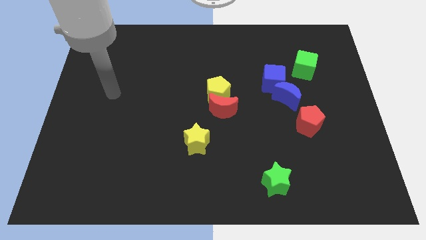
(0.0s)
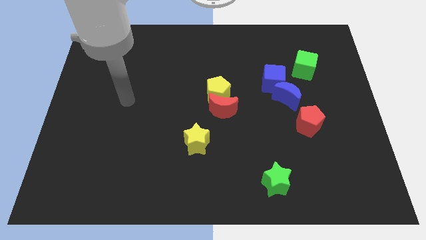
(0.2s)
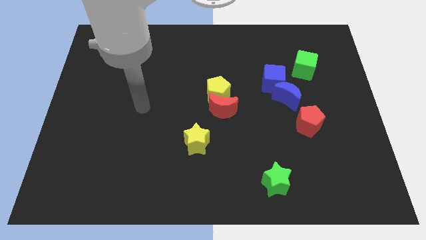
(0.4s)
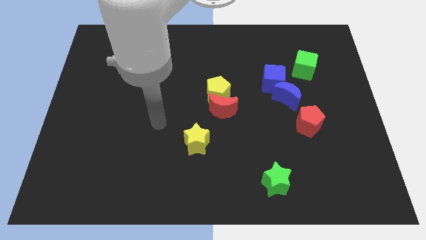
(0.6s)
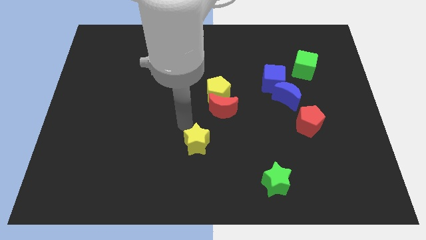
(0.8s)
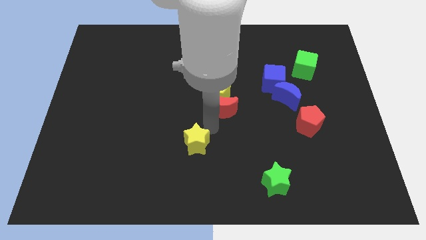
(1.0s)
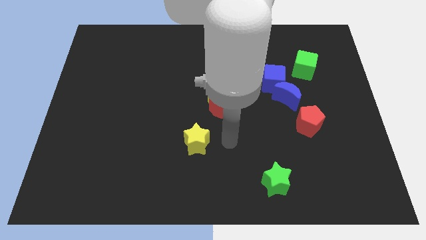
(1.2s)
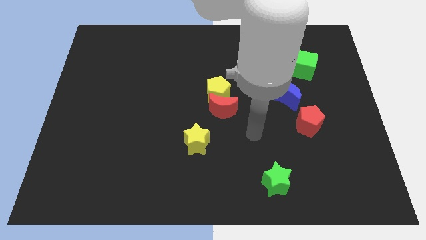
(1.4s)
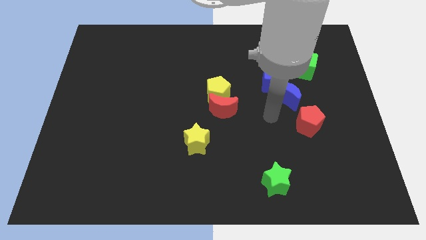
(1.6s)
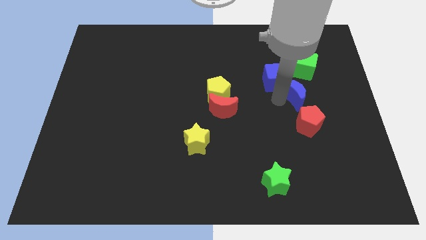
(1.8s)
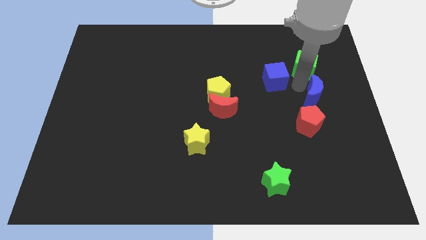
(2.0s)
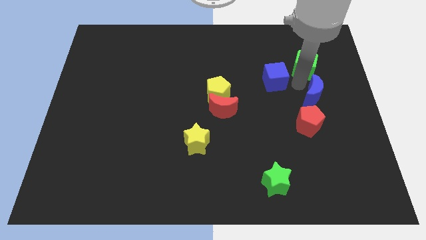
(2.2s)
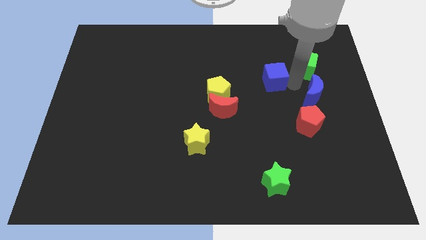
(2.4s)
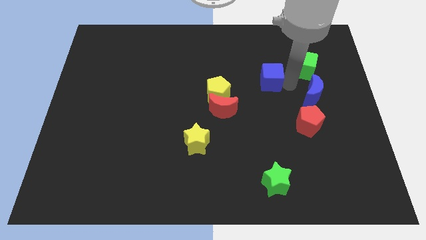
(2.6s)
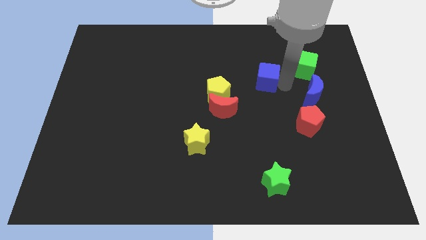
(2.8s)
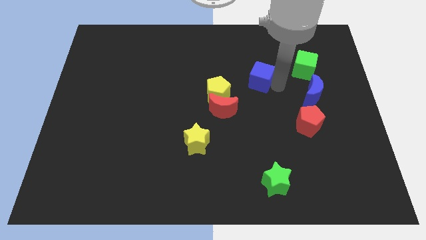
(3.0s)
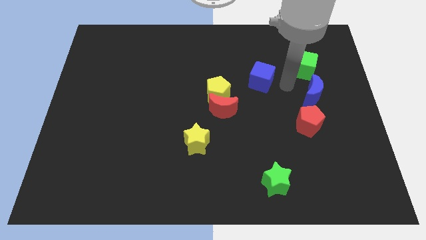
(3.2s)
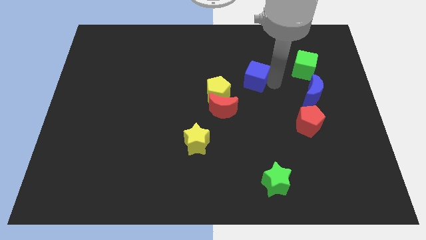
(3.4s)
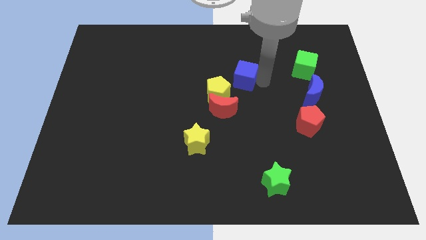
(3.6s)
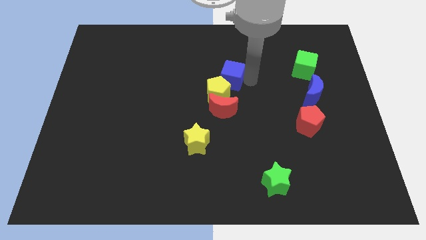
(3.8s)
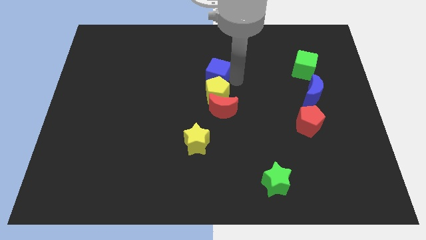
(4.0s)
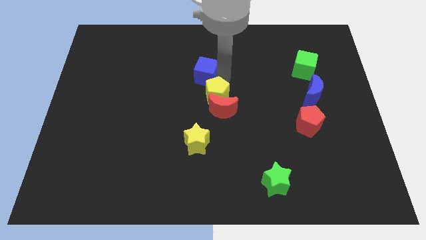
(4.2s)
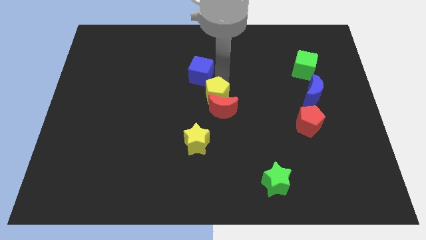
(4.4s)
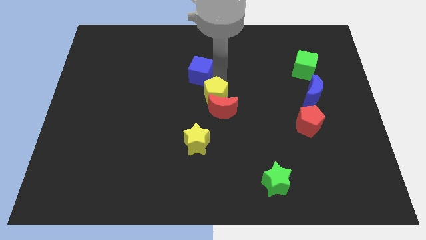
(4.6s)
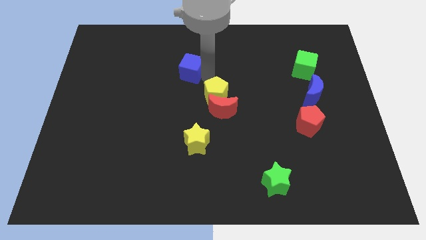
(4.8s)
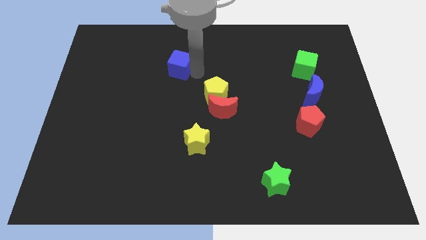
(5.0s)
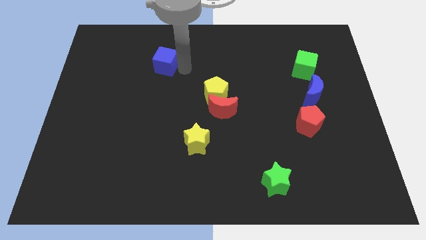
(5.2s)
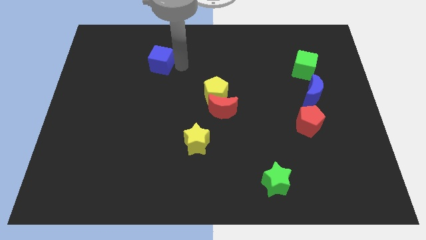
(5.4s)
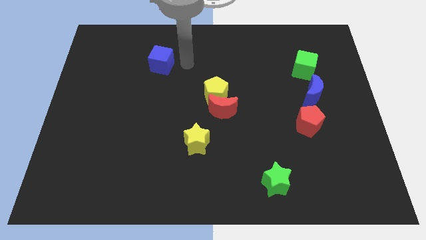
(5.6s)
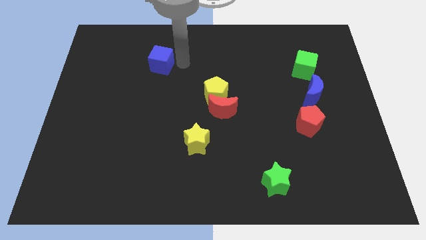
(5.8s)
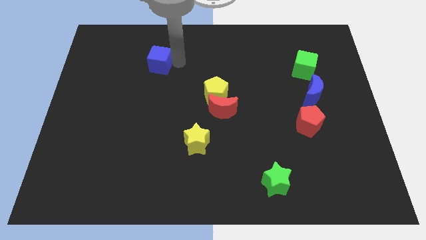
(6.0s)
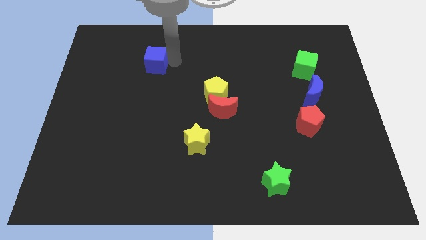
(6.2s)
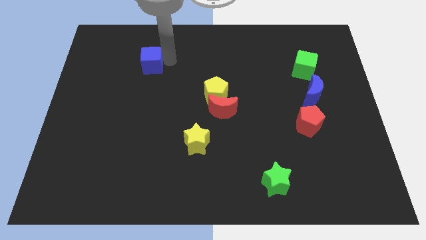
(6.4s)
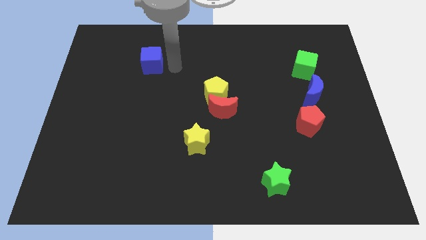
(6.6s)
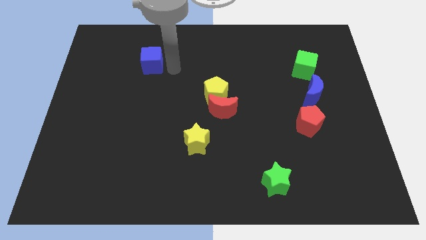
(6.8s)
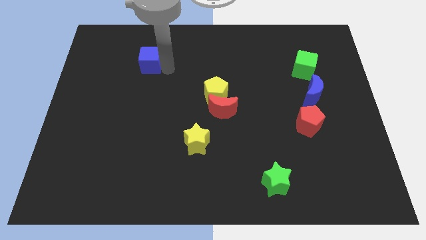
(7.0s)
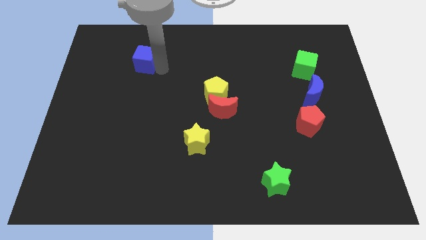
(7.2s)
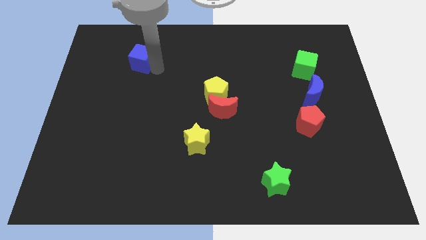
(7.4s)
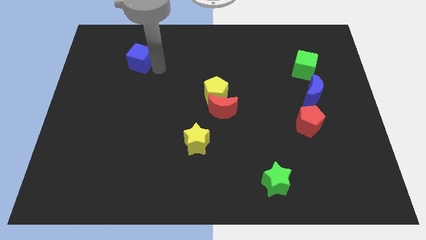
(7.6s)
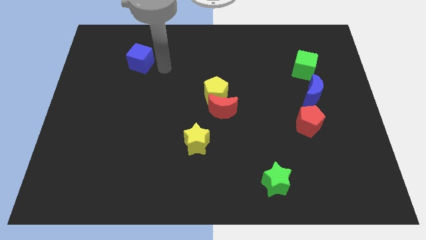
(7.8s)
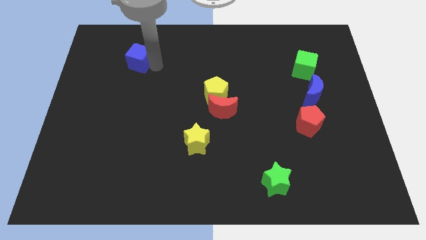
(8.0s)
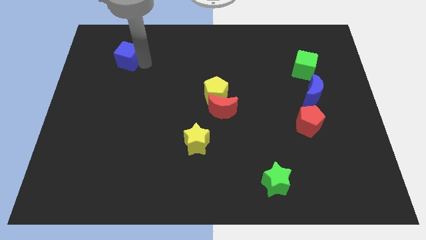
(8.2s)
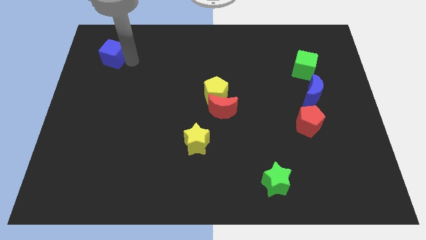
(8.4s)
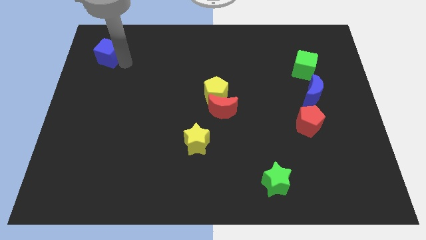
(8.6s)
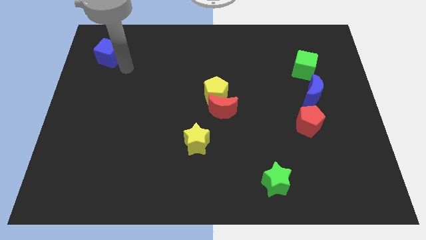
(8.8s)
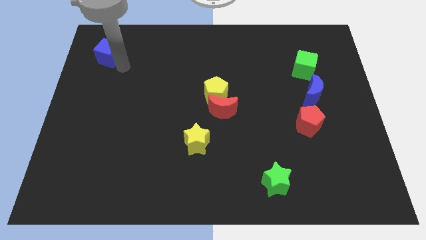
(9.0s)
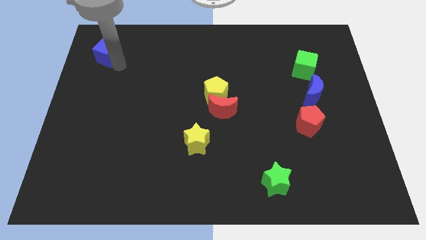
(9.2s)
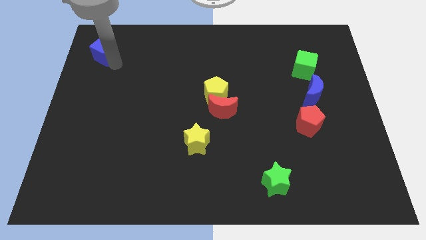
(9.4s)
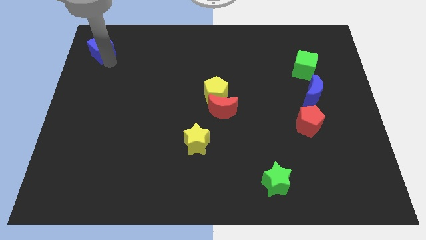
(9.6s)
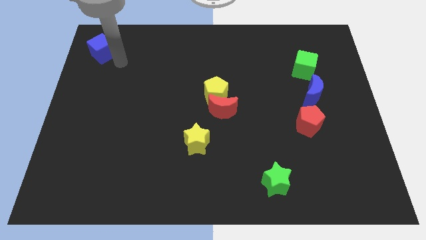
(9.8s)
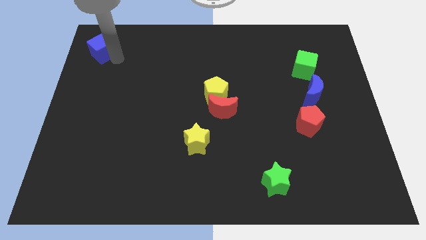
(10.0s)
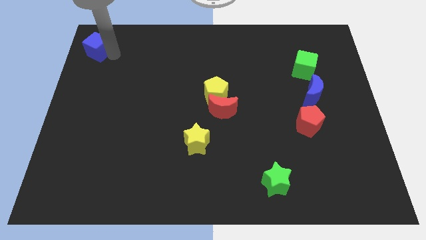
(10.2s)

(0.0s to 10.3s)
move the blue cube to the top left of the board

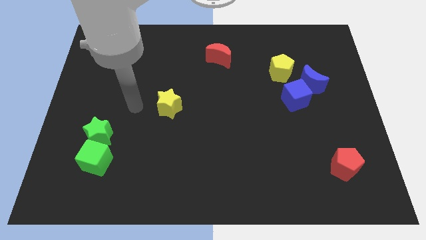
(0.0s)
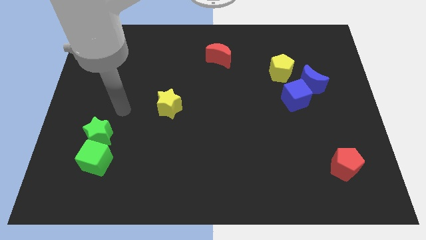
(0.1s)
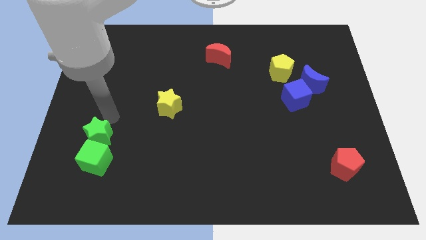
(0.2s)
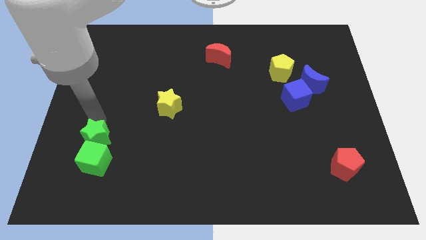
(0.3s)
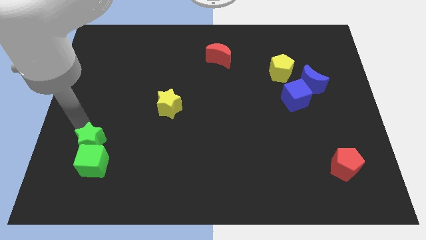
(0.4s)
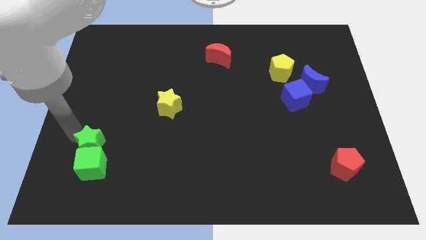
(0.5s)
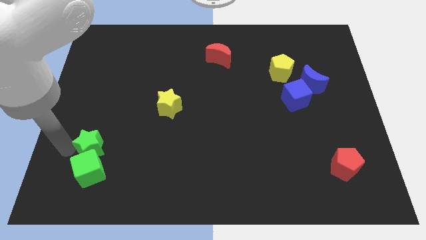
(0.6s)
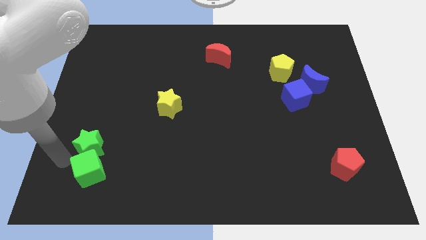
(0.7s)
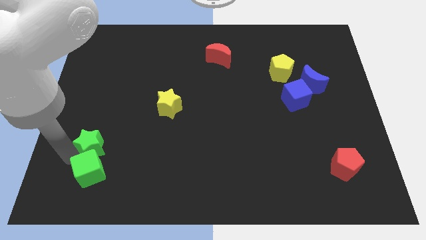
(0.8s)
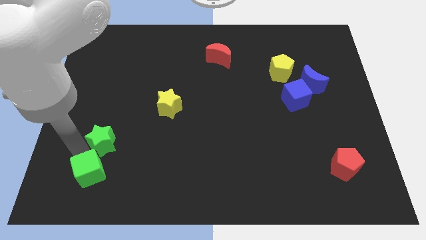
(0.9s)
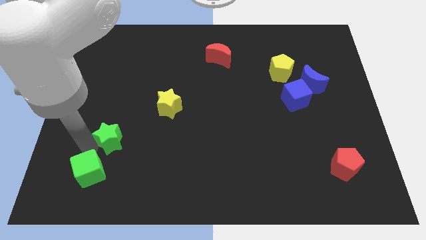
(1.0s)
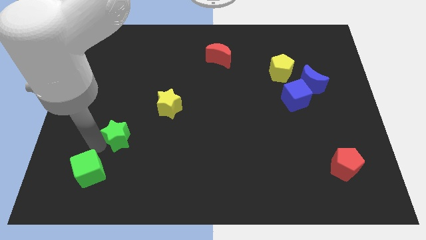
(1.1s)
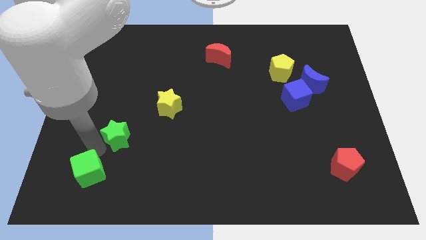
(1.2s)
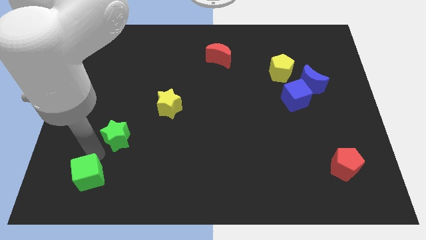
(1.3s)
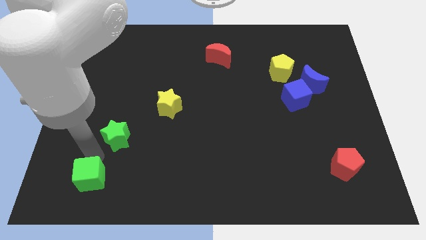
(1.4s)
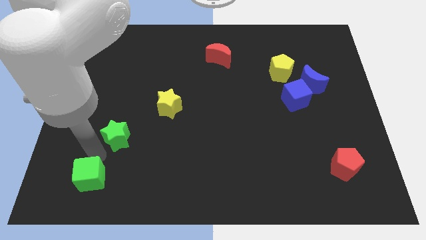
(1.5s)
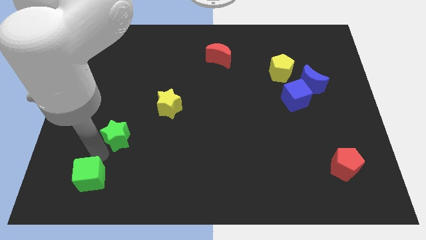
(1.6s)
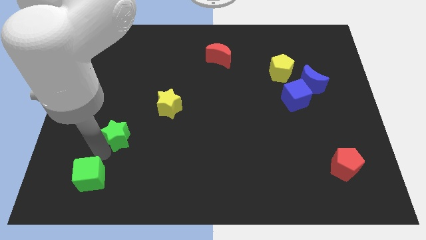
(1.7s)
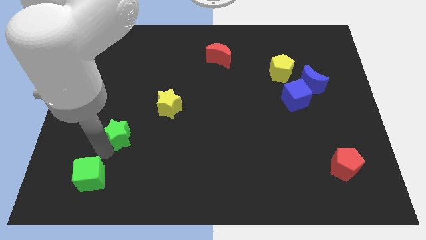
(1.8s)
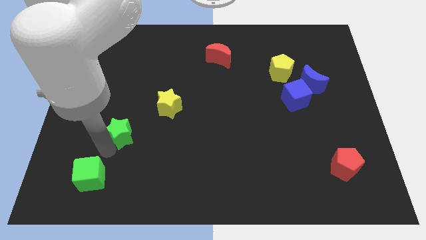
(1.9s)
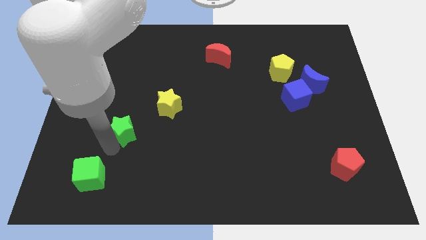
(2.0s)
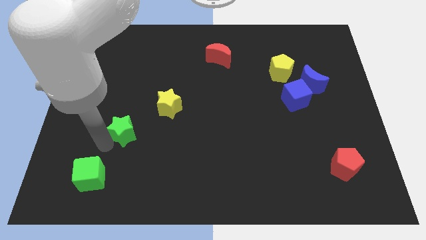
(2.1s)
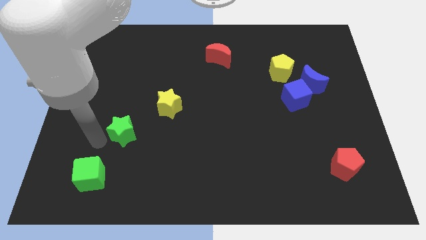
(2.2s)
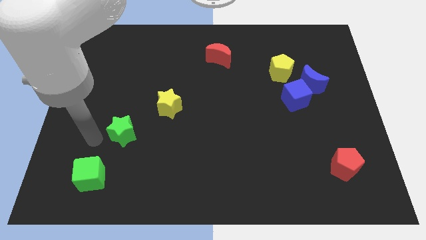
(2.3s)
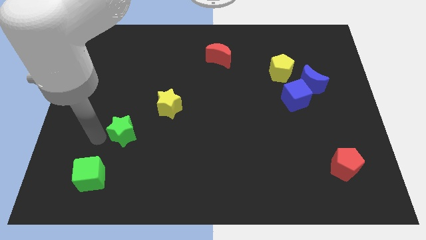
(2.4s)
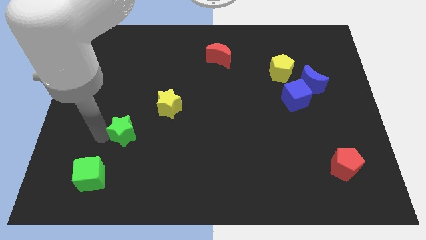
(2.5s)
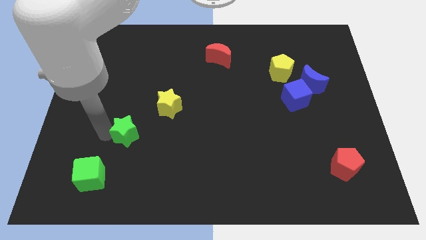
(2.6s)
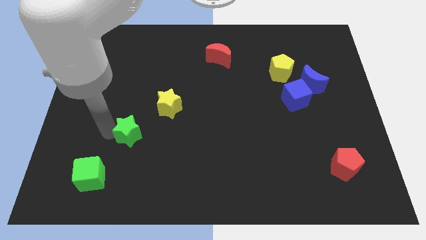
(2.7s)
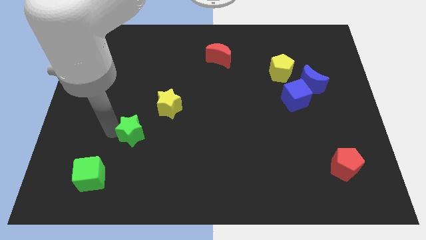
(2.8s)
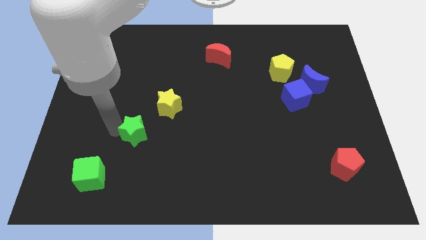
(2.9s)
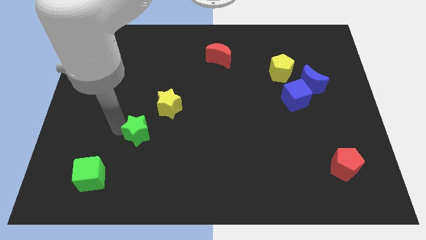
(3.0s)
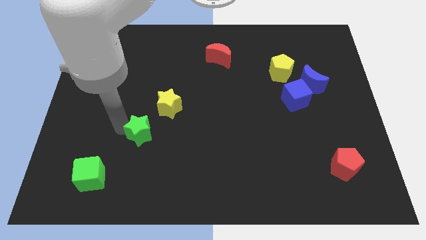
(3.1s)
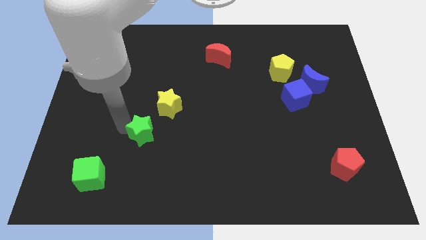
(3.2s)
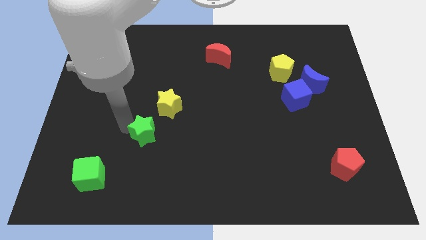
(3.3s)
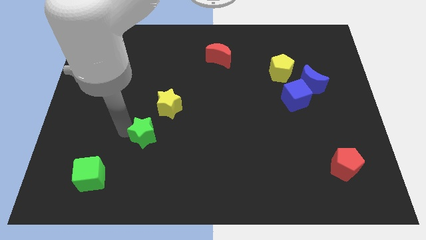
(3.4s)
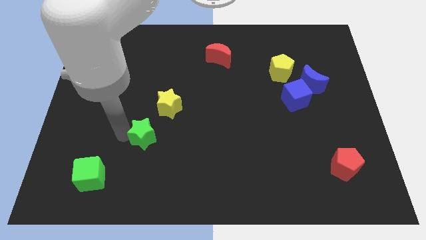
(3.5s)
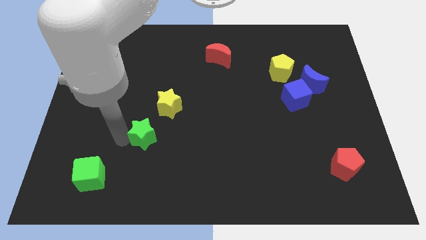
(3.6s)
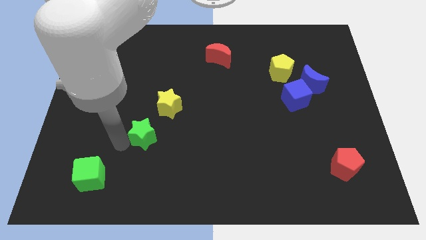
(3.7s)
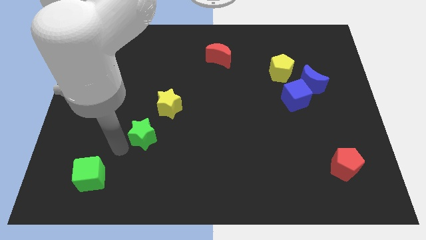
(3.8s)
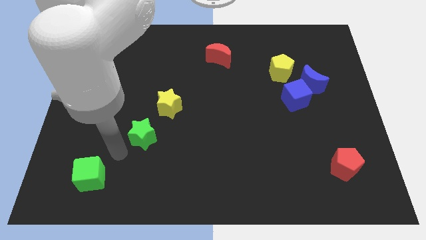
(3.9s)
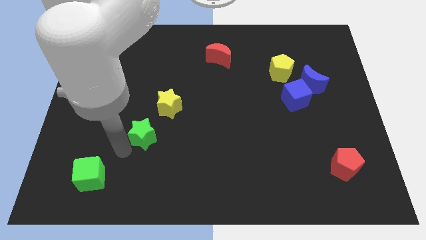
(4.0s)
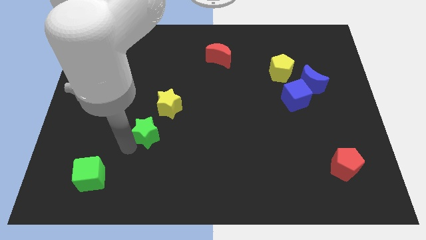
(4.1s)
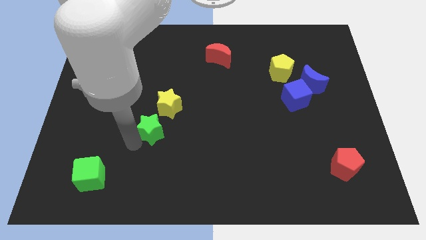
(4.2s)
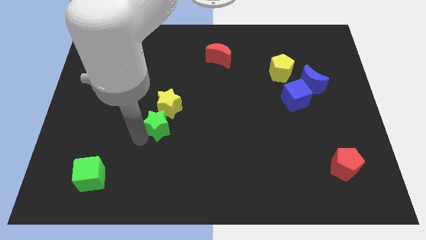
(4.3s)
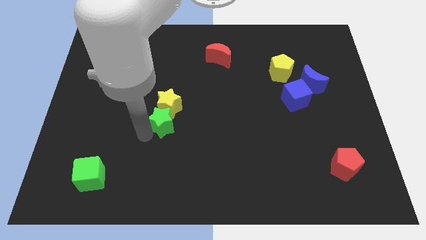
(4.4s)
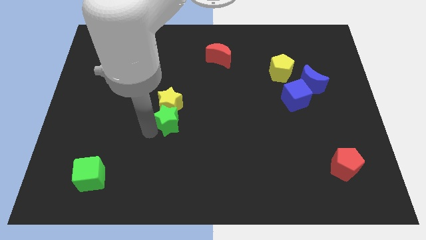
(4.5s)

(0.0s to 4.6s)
move the green star to the middle
